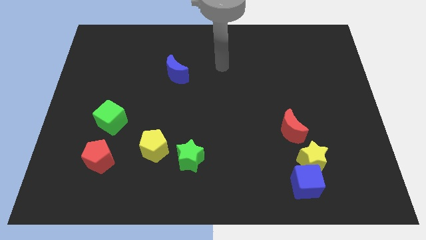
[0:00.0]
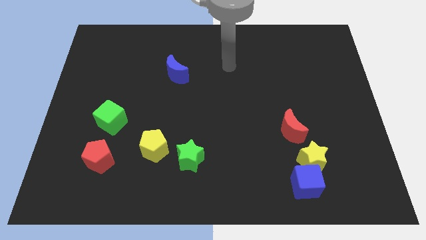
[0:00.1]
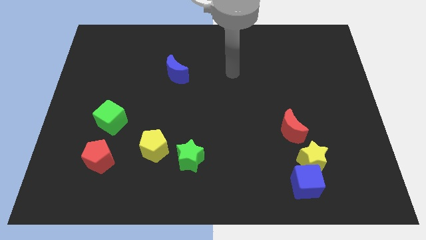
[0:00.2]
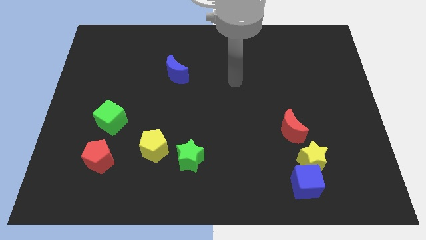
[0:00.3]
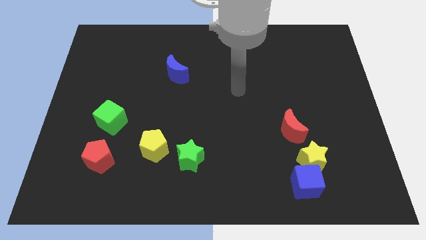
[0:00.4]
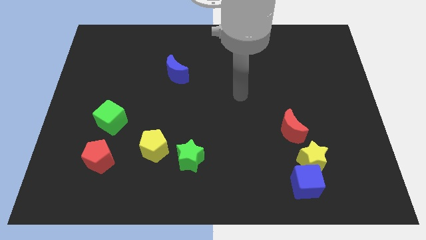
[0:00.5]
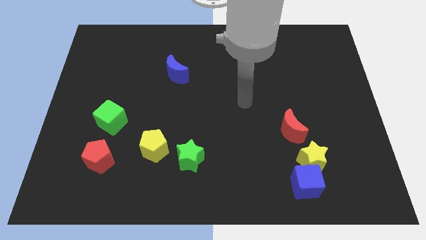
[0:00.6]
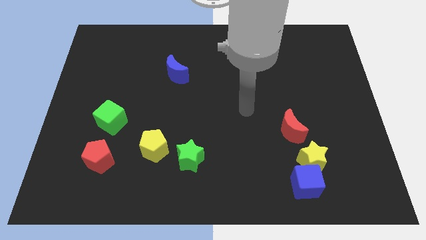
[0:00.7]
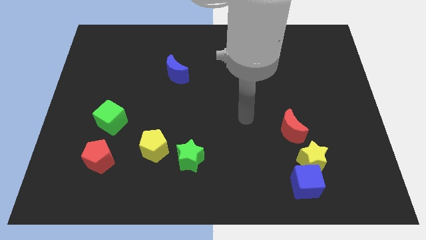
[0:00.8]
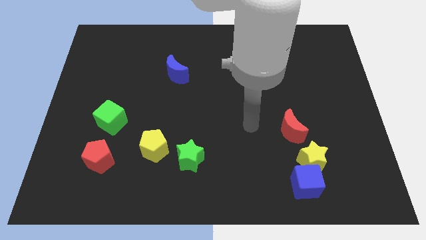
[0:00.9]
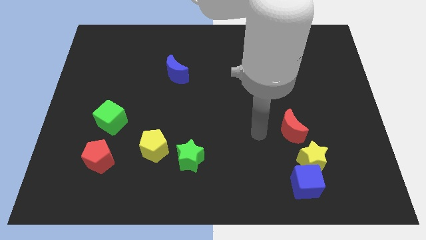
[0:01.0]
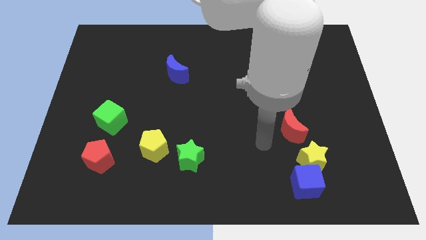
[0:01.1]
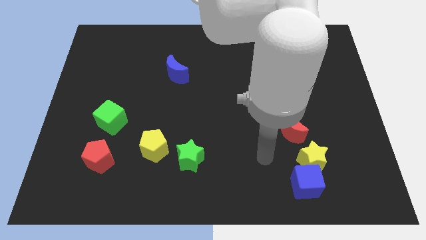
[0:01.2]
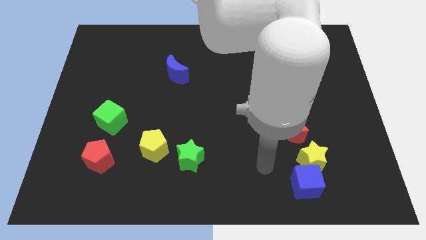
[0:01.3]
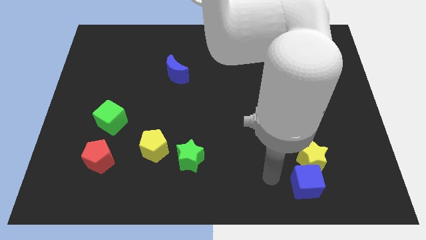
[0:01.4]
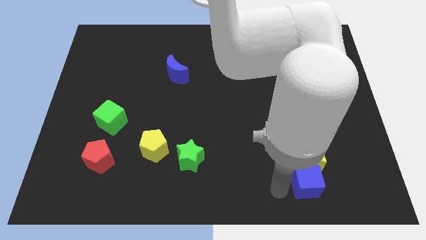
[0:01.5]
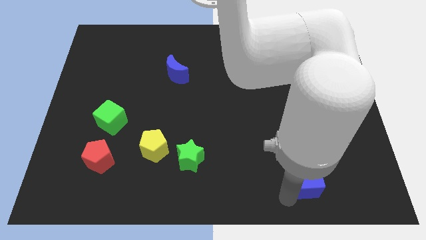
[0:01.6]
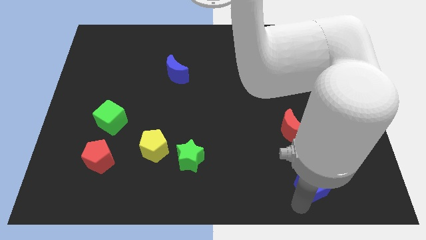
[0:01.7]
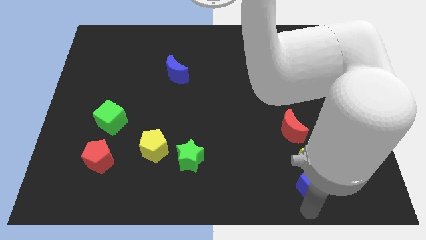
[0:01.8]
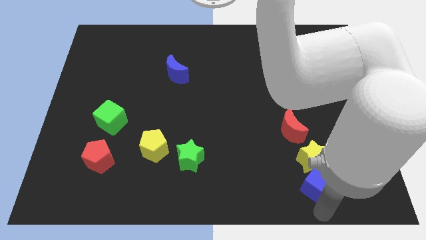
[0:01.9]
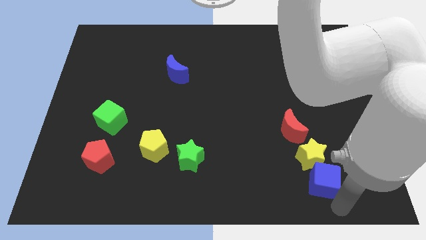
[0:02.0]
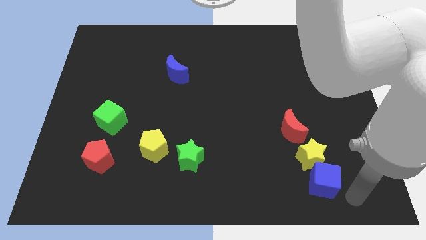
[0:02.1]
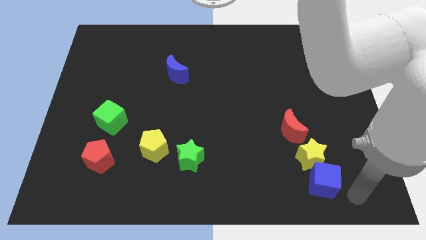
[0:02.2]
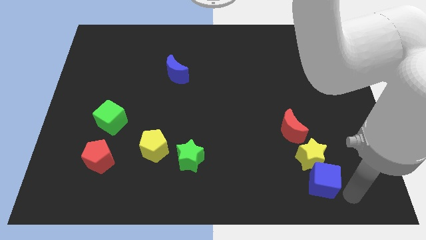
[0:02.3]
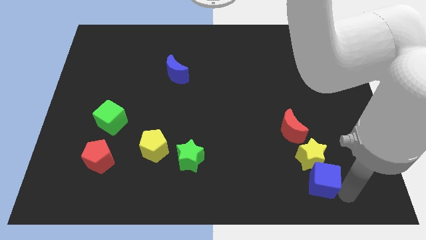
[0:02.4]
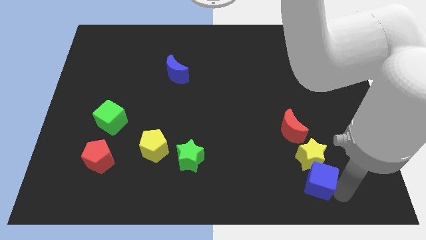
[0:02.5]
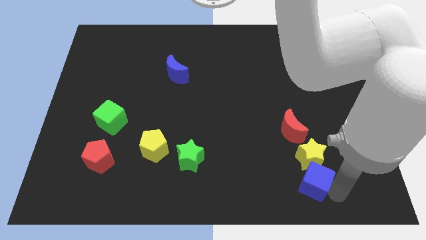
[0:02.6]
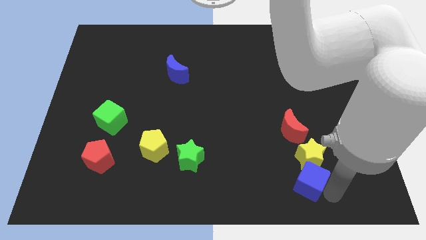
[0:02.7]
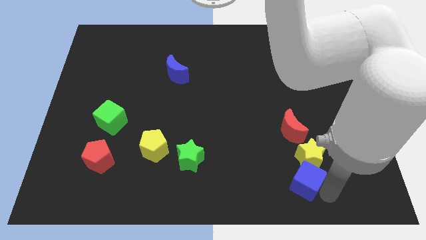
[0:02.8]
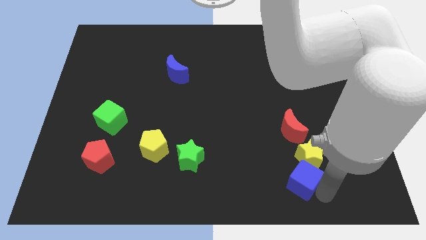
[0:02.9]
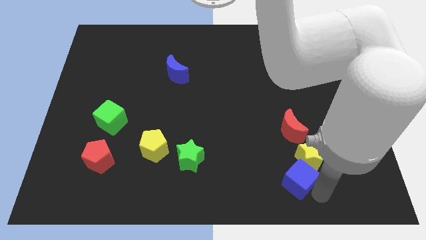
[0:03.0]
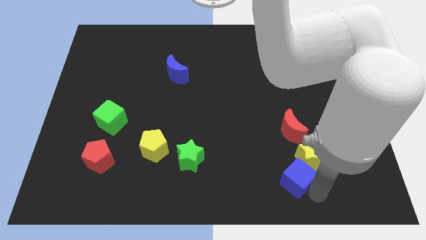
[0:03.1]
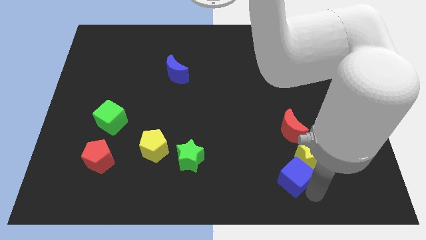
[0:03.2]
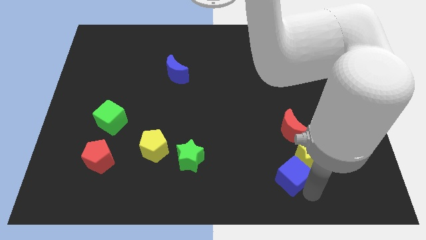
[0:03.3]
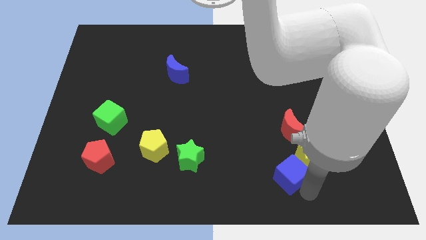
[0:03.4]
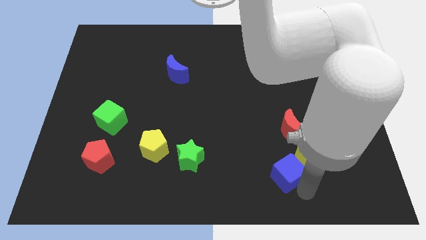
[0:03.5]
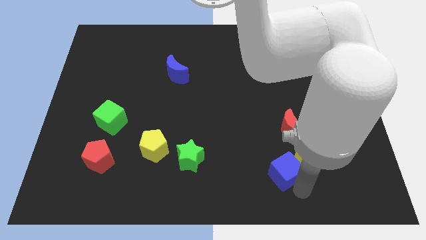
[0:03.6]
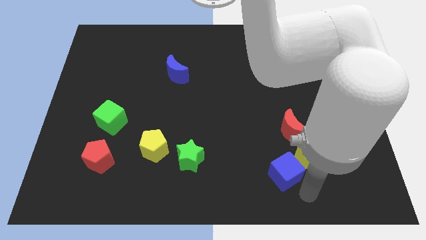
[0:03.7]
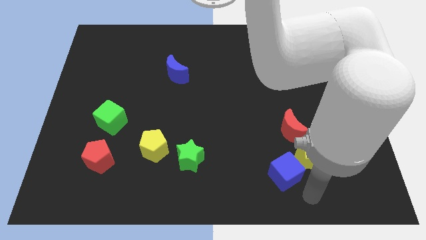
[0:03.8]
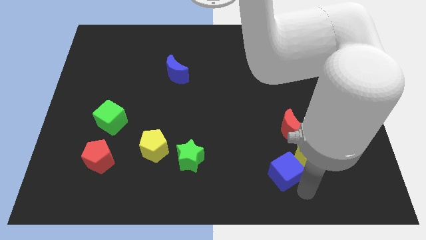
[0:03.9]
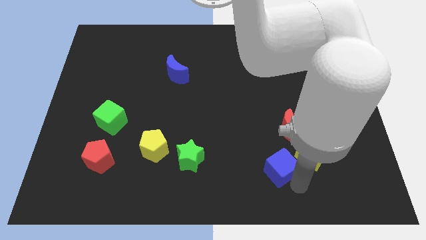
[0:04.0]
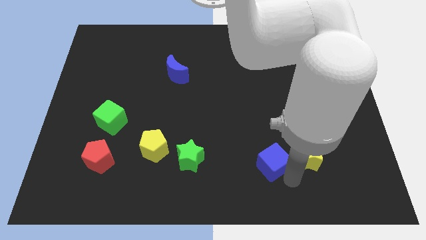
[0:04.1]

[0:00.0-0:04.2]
slightly move the blue cube up and to the left diagonally

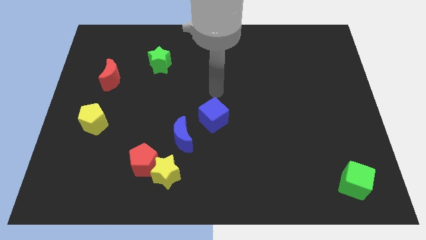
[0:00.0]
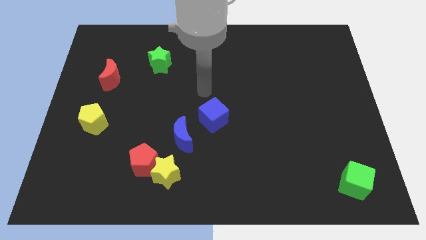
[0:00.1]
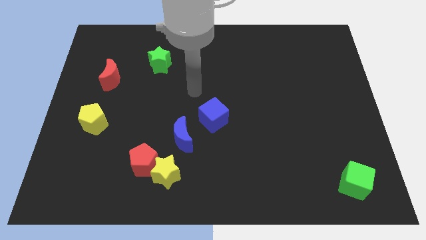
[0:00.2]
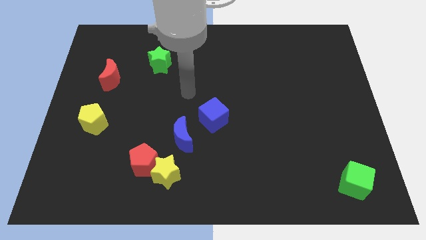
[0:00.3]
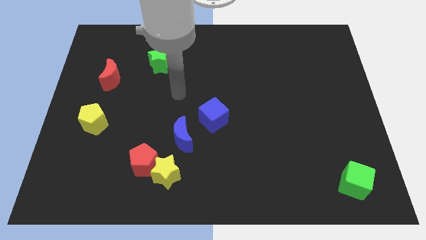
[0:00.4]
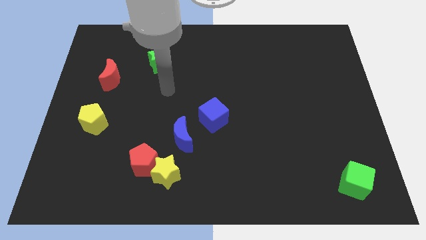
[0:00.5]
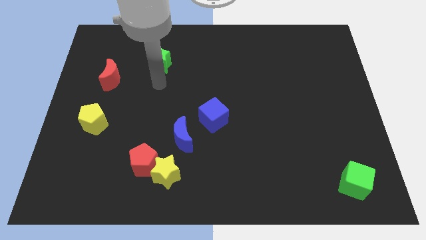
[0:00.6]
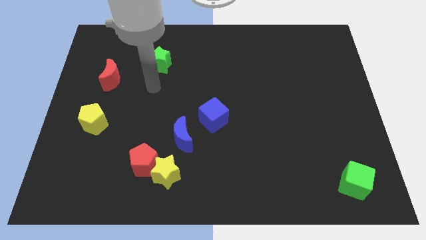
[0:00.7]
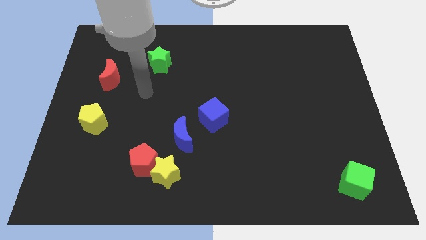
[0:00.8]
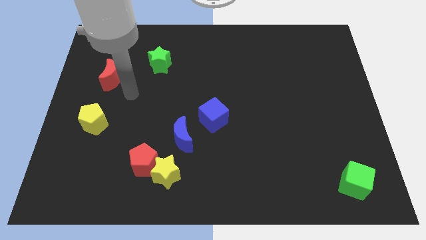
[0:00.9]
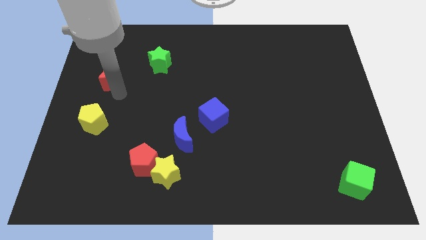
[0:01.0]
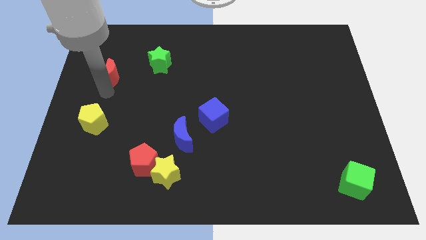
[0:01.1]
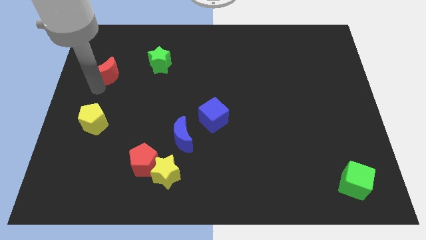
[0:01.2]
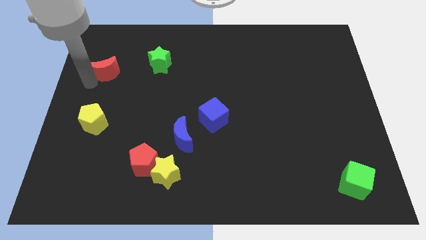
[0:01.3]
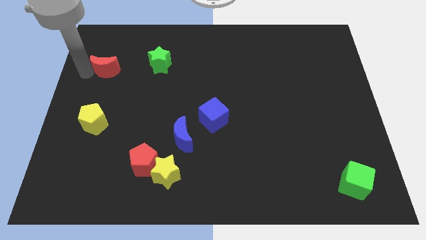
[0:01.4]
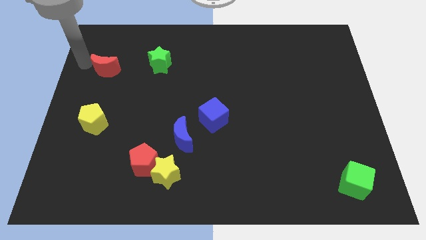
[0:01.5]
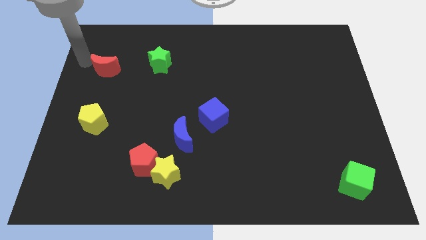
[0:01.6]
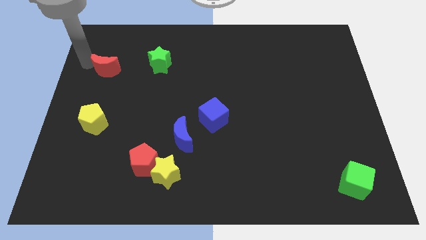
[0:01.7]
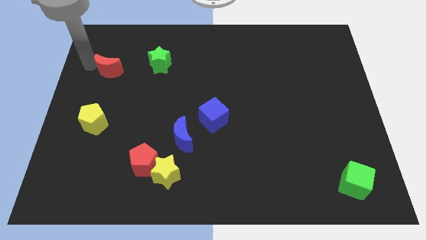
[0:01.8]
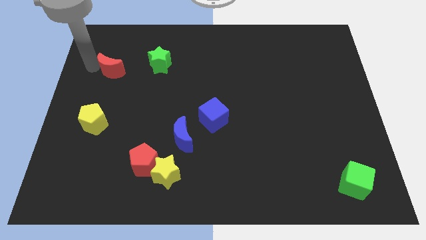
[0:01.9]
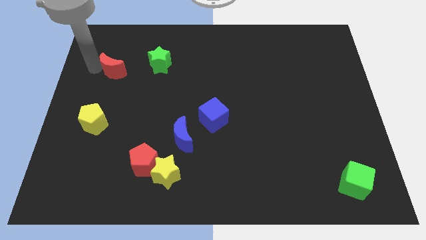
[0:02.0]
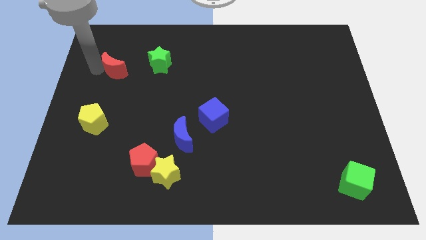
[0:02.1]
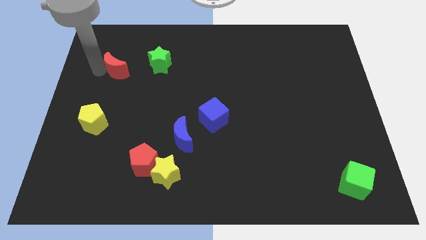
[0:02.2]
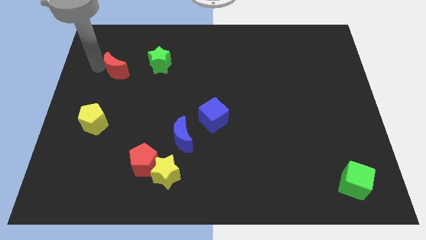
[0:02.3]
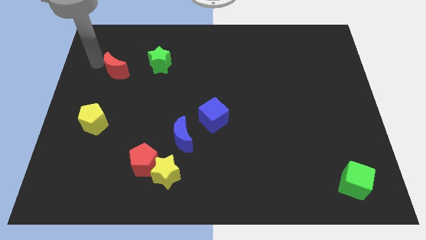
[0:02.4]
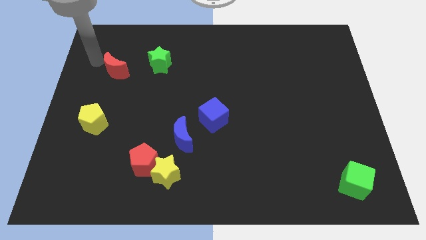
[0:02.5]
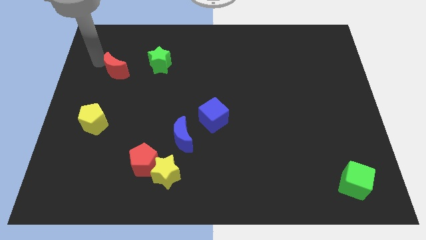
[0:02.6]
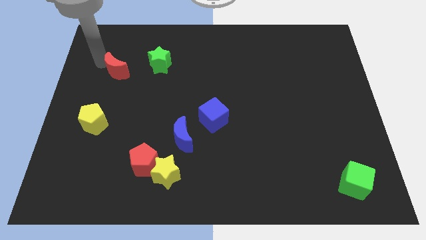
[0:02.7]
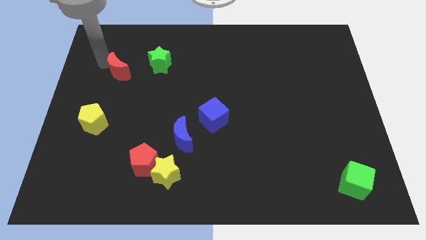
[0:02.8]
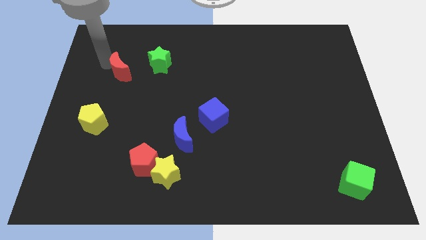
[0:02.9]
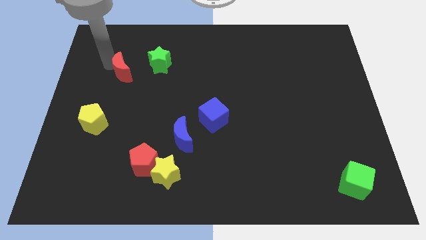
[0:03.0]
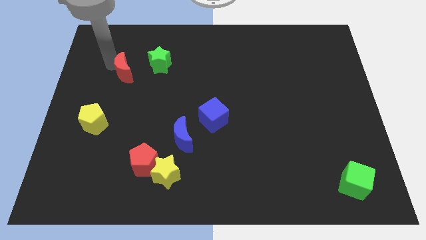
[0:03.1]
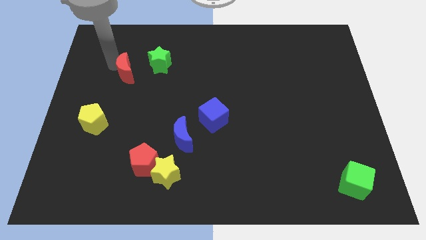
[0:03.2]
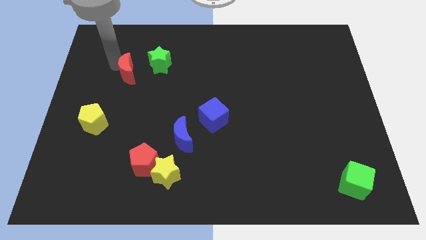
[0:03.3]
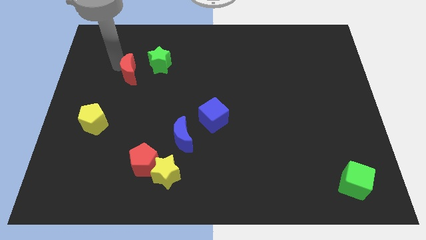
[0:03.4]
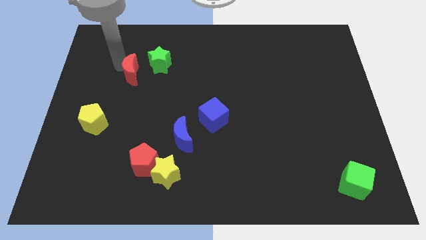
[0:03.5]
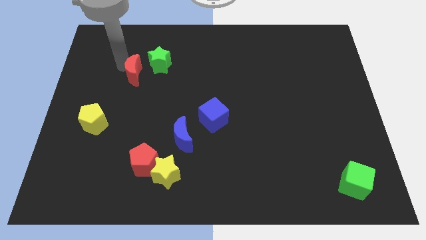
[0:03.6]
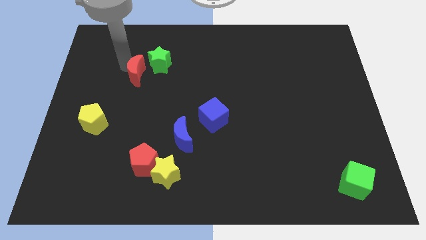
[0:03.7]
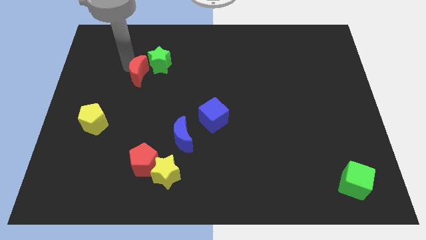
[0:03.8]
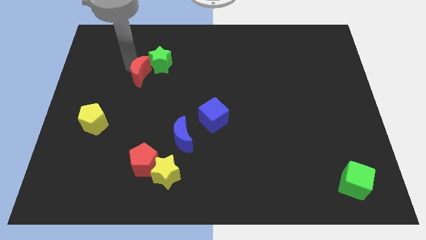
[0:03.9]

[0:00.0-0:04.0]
move the red moon right slightly
